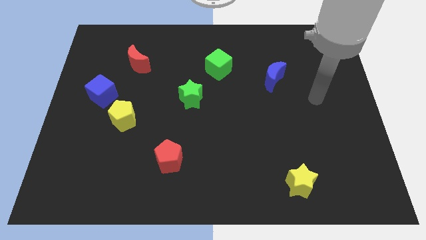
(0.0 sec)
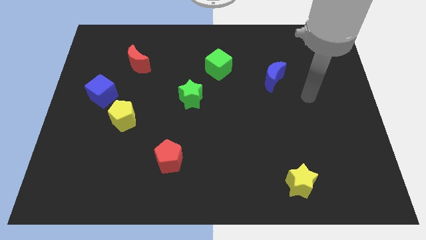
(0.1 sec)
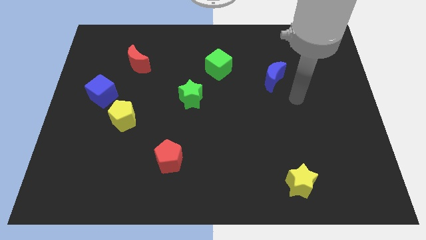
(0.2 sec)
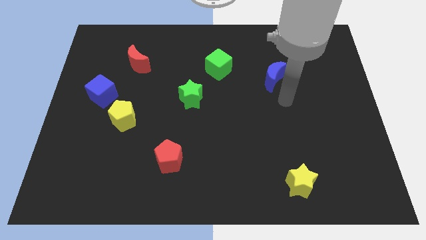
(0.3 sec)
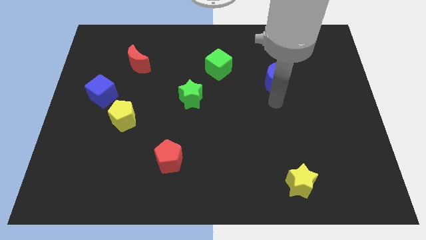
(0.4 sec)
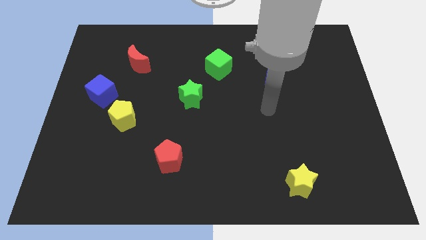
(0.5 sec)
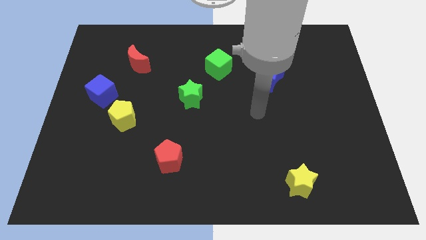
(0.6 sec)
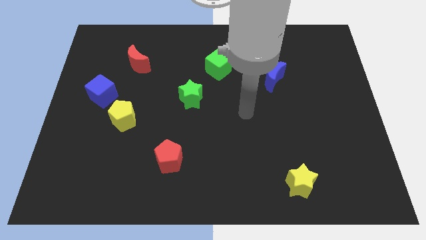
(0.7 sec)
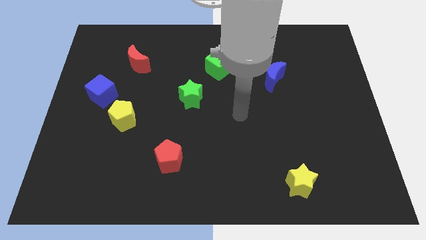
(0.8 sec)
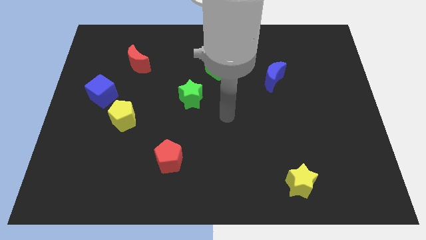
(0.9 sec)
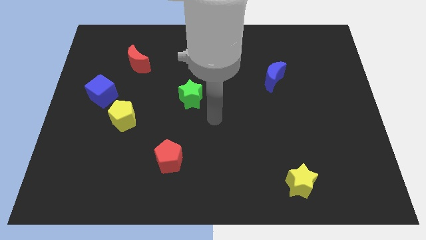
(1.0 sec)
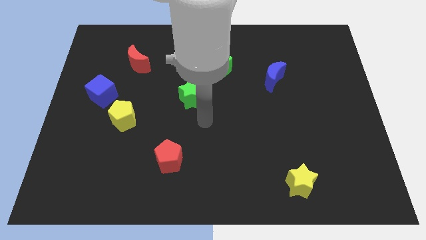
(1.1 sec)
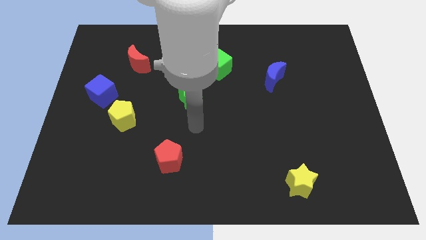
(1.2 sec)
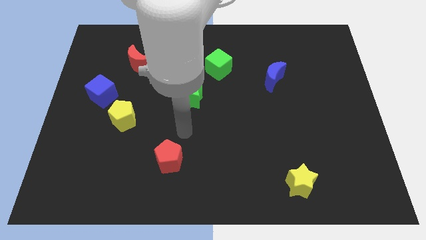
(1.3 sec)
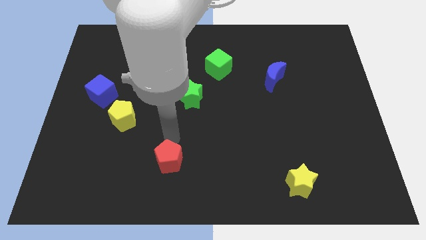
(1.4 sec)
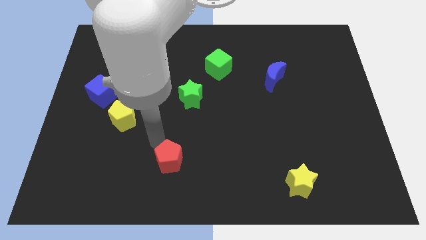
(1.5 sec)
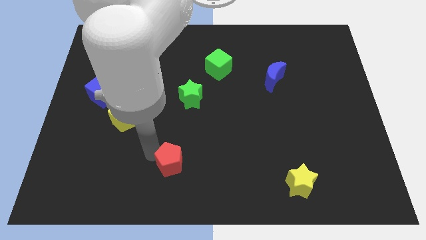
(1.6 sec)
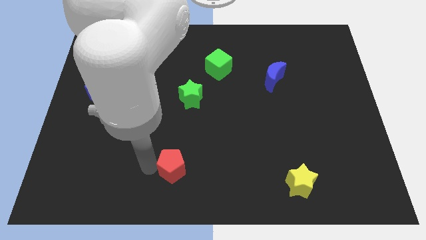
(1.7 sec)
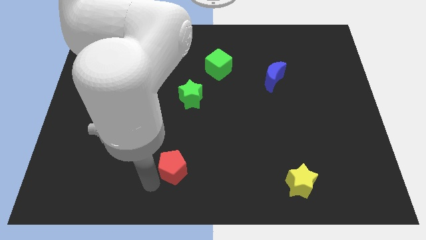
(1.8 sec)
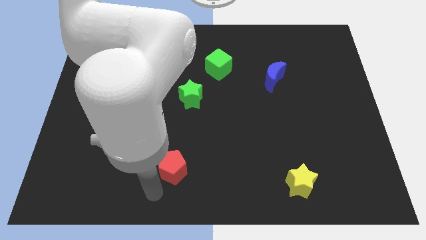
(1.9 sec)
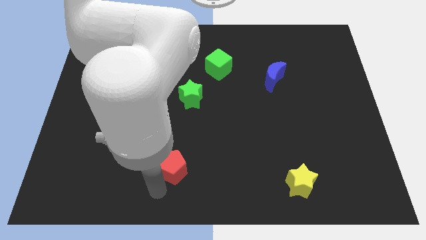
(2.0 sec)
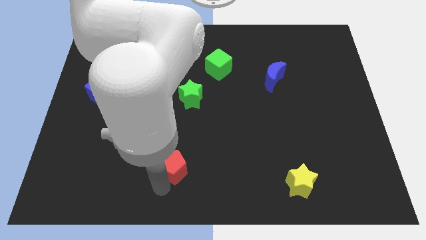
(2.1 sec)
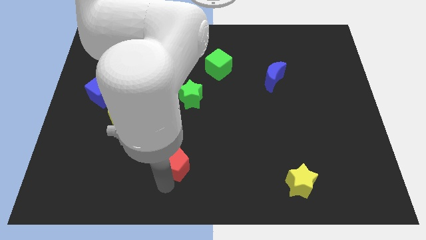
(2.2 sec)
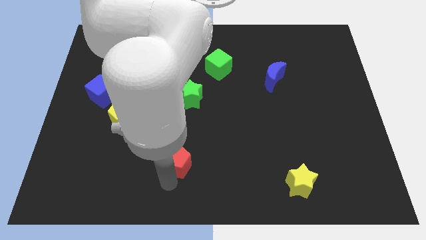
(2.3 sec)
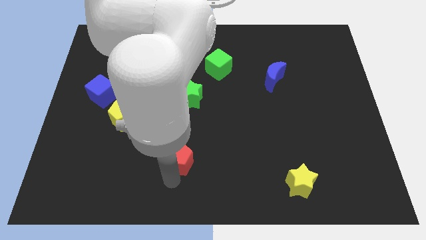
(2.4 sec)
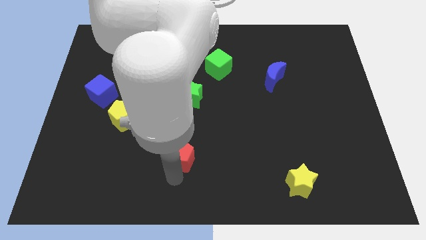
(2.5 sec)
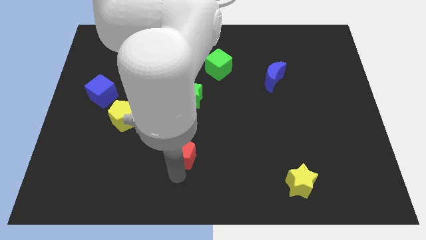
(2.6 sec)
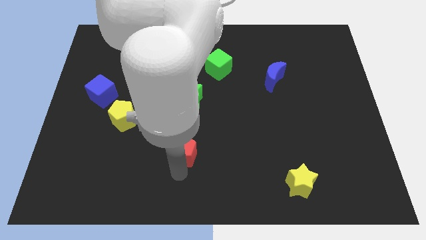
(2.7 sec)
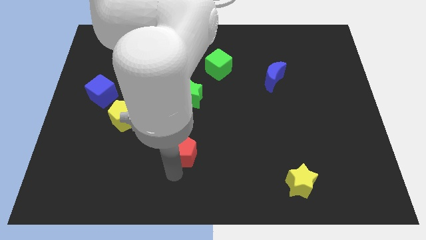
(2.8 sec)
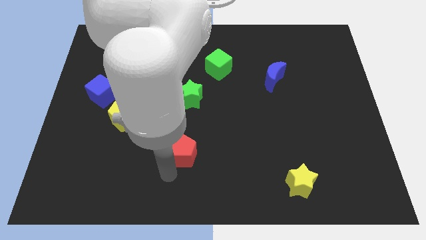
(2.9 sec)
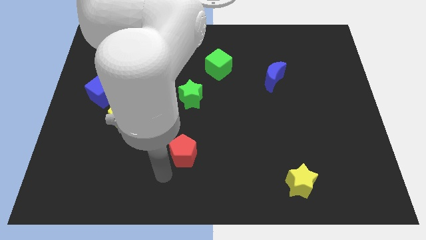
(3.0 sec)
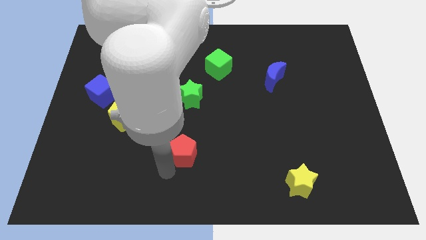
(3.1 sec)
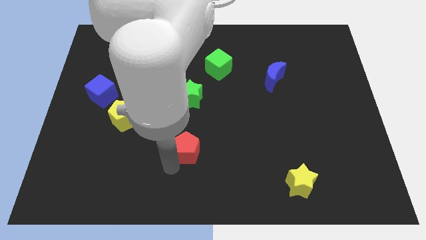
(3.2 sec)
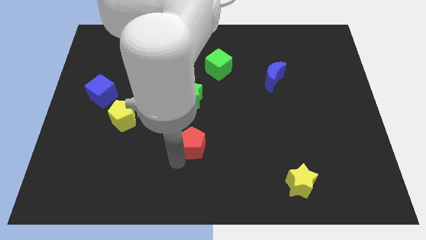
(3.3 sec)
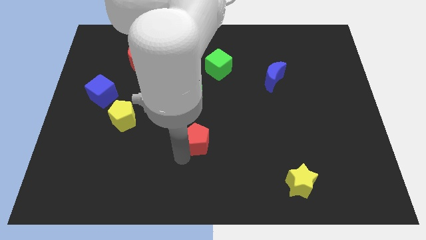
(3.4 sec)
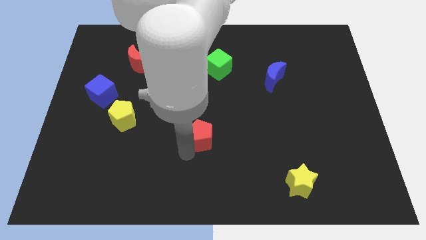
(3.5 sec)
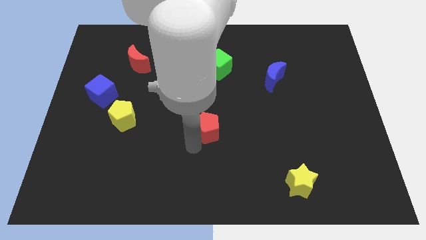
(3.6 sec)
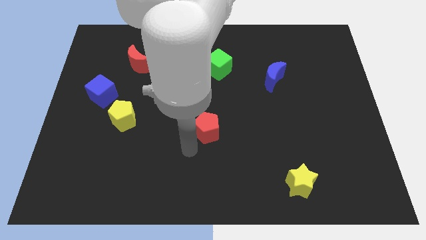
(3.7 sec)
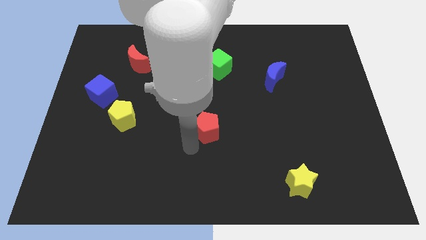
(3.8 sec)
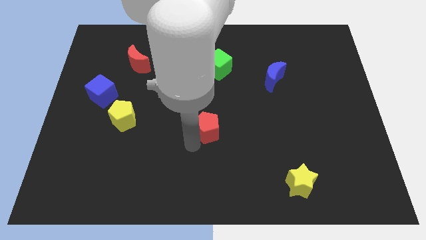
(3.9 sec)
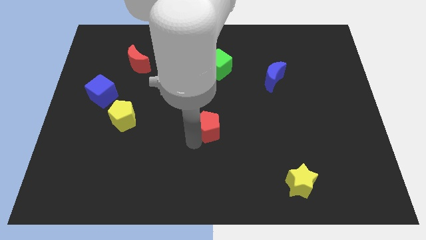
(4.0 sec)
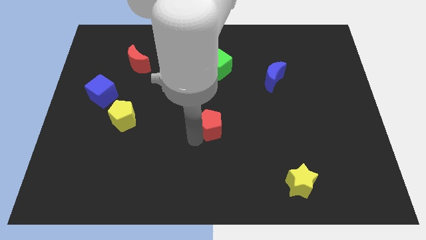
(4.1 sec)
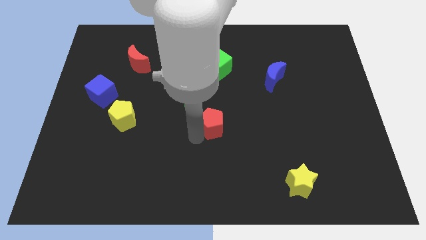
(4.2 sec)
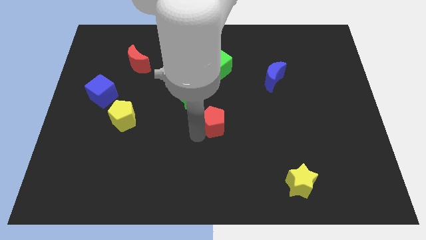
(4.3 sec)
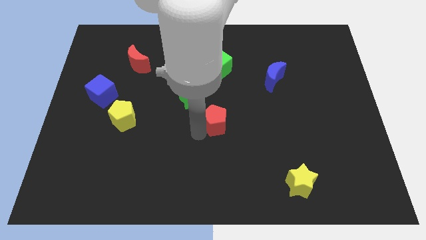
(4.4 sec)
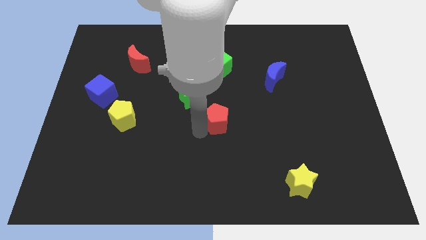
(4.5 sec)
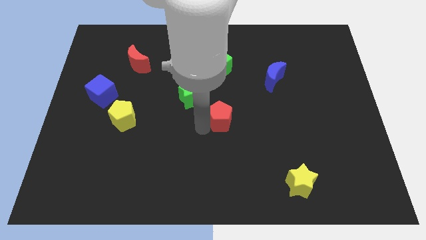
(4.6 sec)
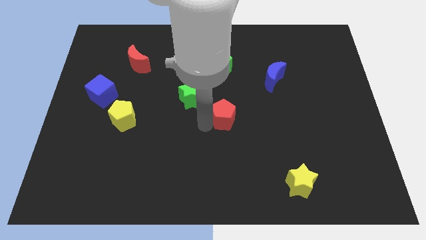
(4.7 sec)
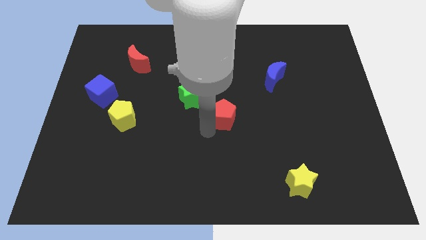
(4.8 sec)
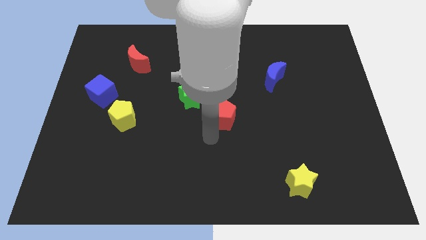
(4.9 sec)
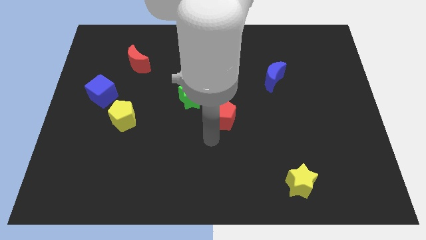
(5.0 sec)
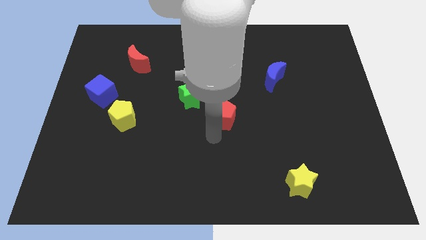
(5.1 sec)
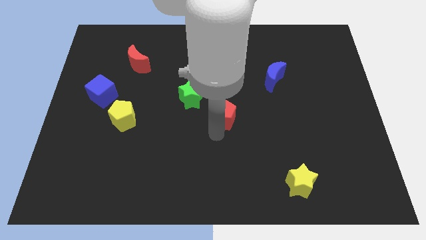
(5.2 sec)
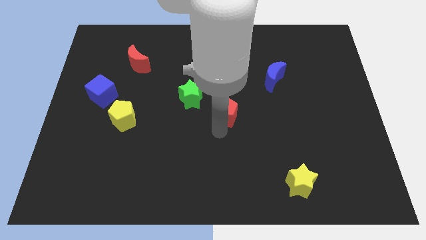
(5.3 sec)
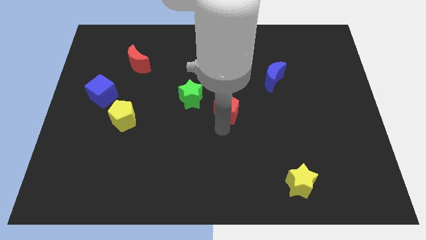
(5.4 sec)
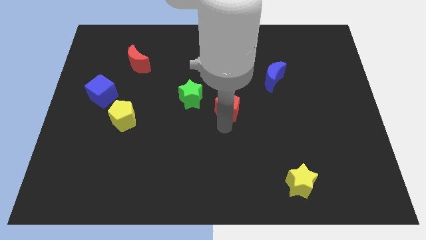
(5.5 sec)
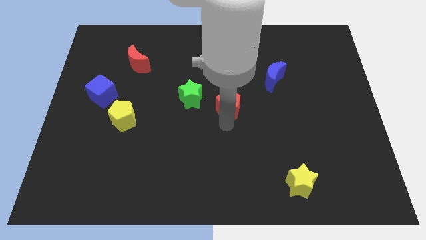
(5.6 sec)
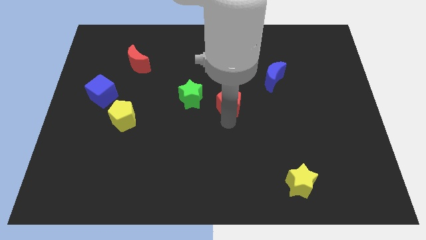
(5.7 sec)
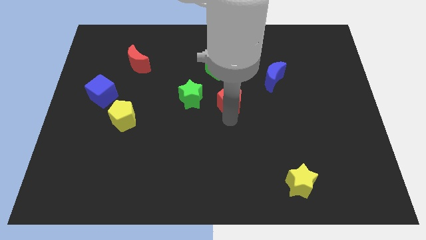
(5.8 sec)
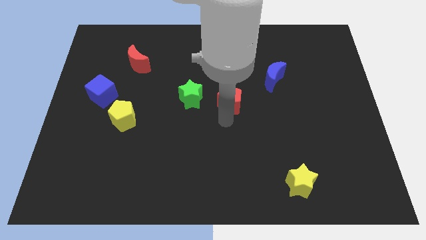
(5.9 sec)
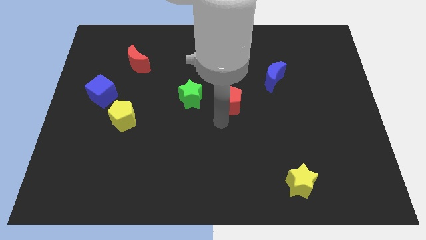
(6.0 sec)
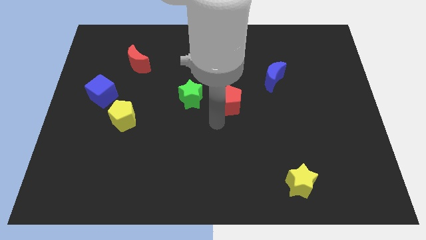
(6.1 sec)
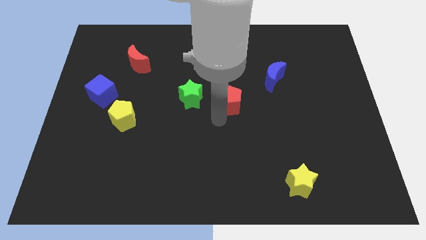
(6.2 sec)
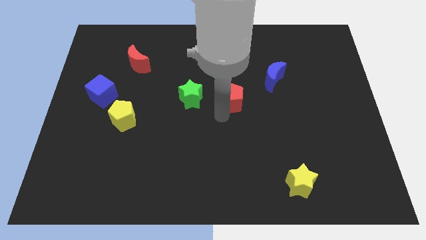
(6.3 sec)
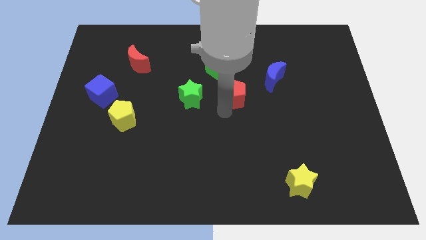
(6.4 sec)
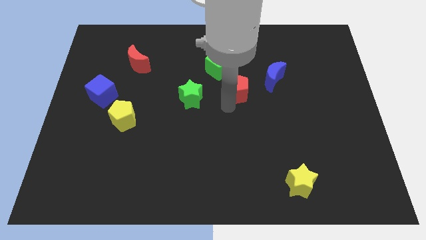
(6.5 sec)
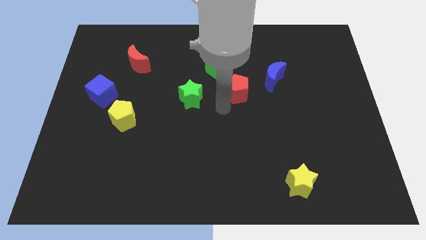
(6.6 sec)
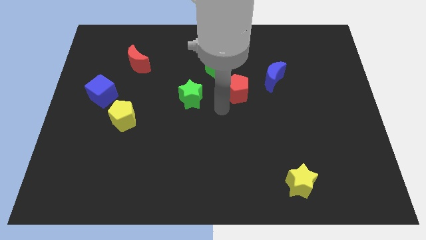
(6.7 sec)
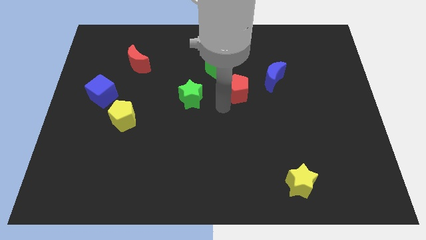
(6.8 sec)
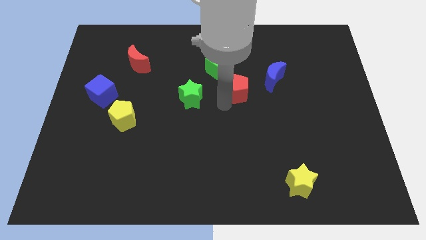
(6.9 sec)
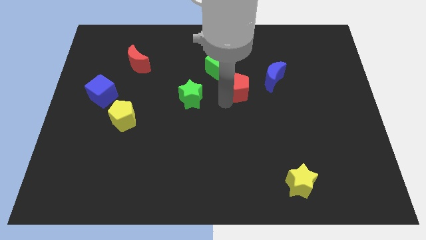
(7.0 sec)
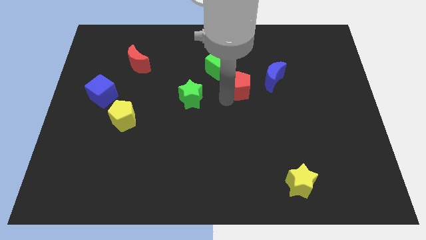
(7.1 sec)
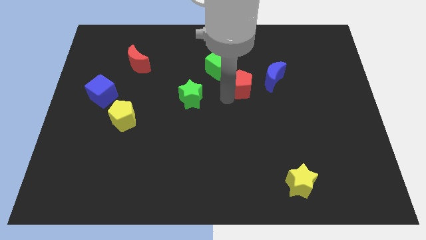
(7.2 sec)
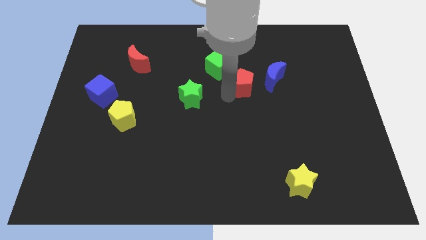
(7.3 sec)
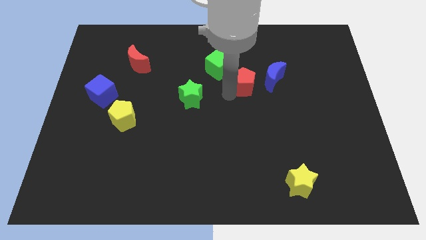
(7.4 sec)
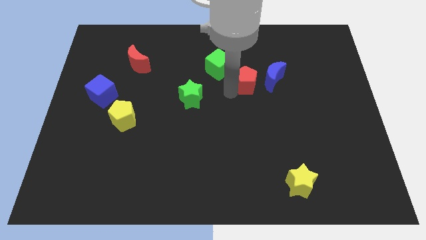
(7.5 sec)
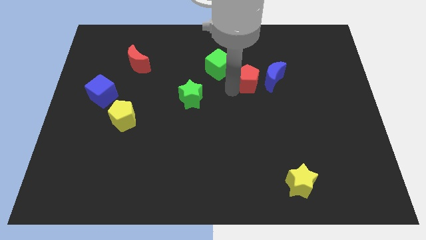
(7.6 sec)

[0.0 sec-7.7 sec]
slide the red pentagon just right of the green cube
